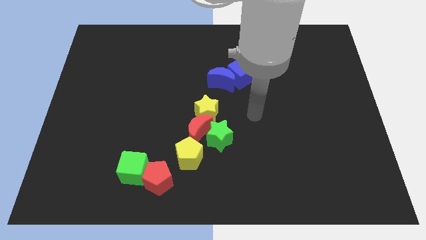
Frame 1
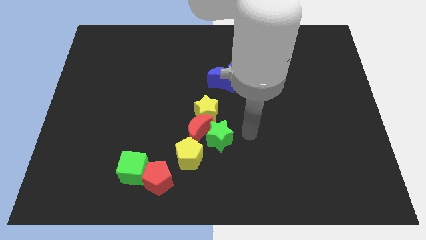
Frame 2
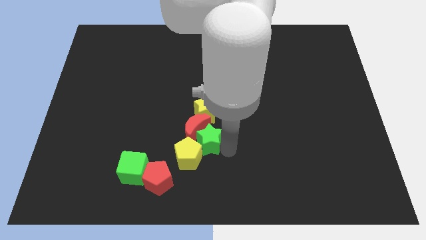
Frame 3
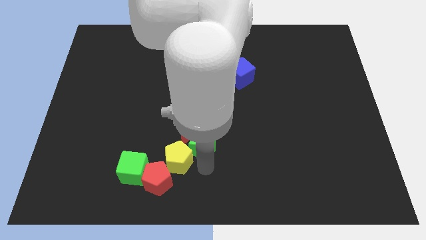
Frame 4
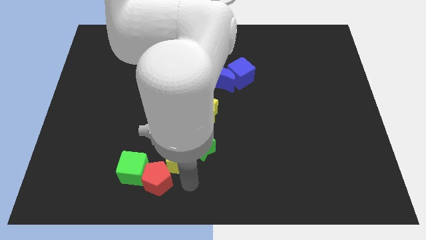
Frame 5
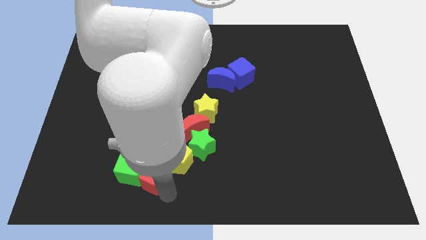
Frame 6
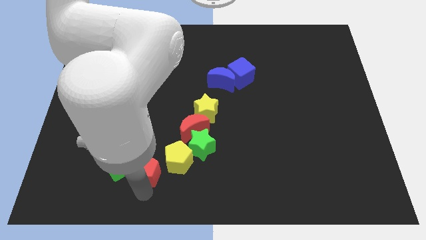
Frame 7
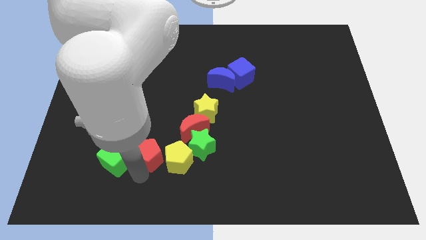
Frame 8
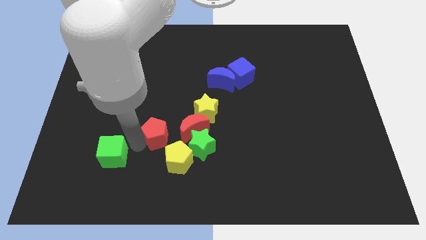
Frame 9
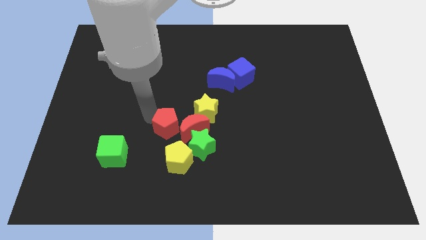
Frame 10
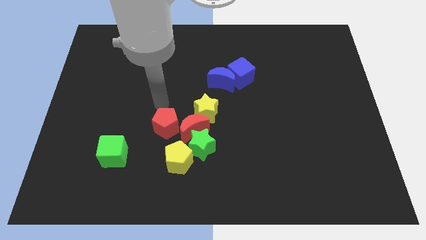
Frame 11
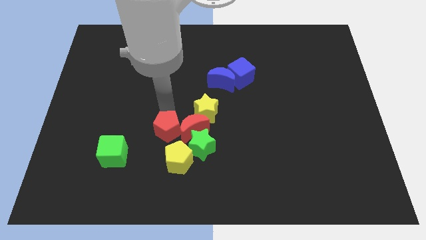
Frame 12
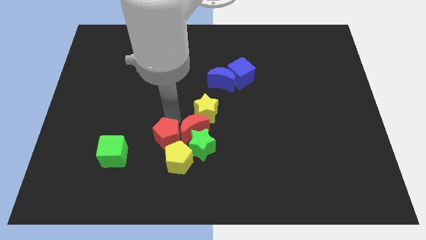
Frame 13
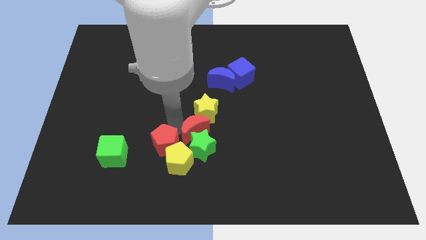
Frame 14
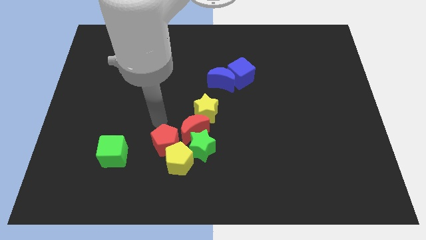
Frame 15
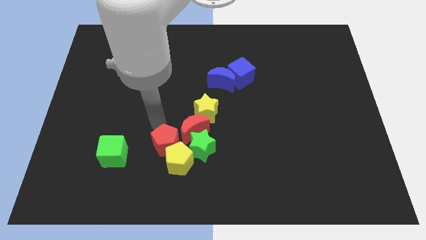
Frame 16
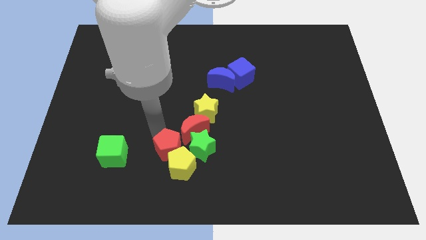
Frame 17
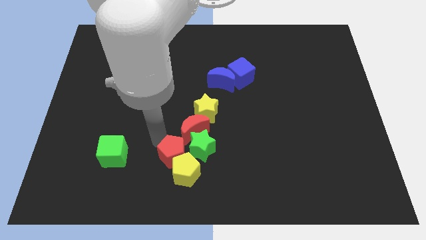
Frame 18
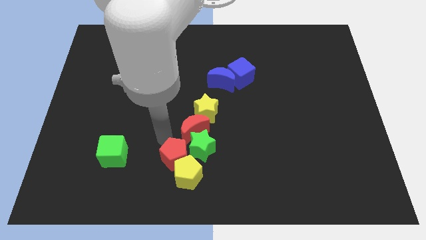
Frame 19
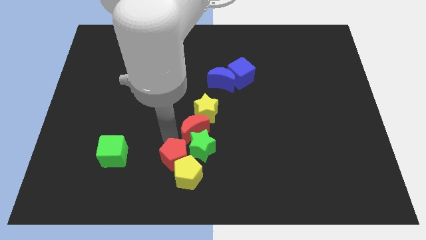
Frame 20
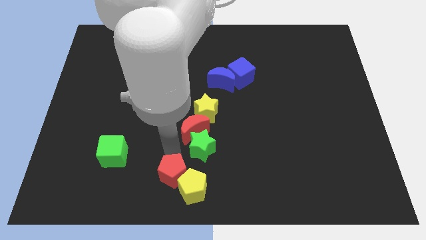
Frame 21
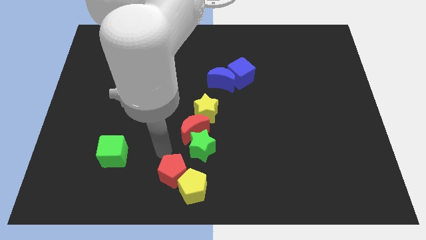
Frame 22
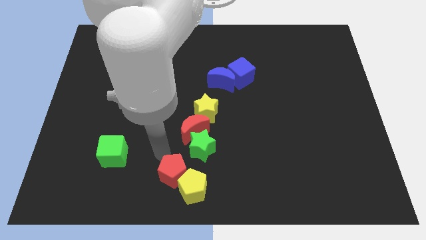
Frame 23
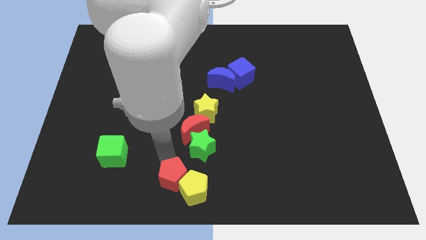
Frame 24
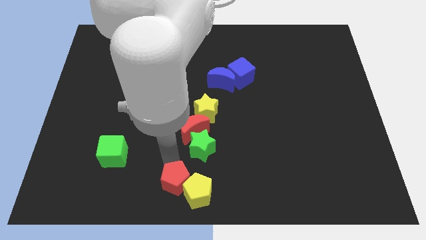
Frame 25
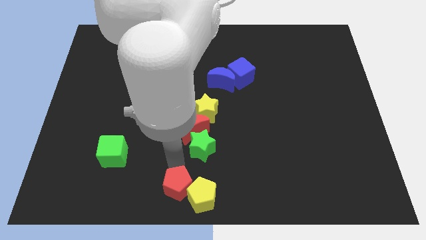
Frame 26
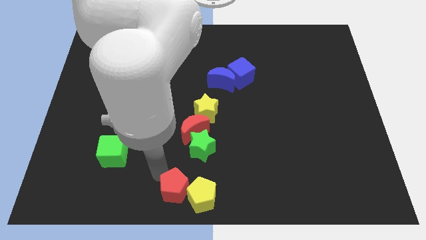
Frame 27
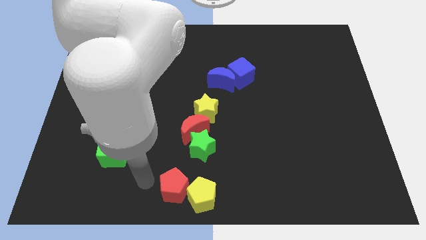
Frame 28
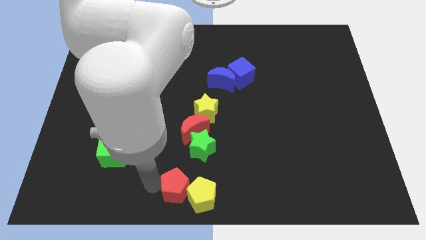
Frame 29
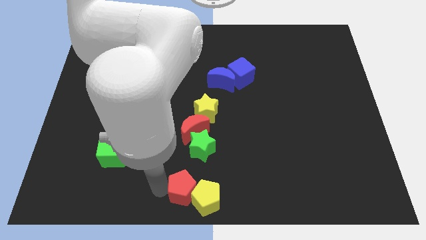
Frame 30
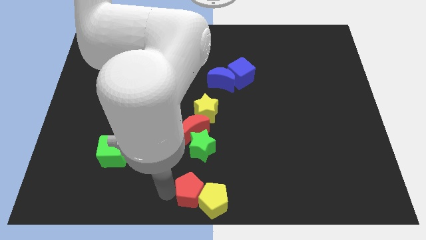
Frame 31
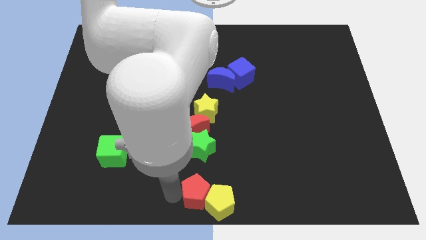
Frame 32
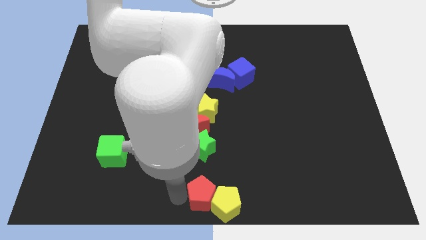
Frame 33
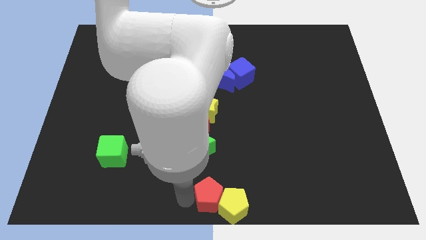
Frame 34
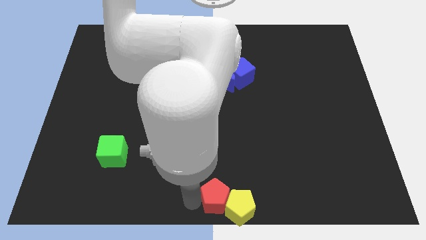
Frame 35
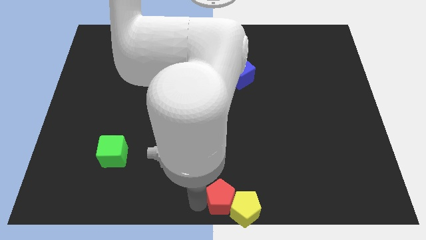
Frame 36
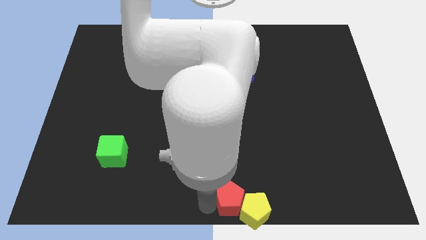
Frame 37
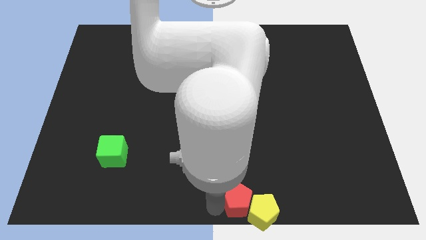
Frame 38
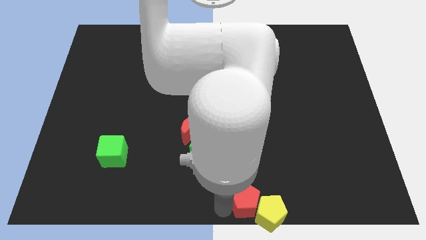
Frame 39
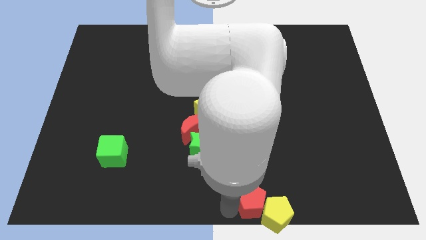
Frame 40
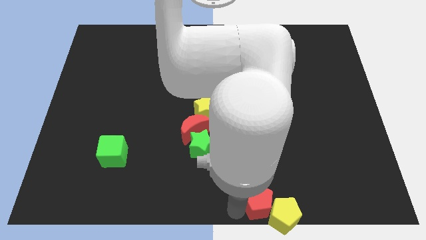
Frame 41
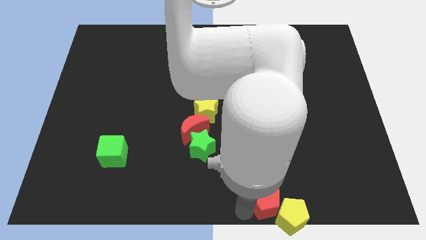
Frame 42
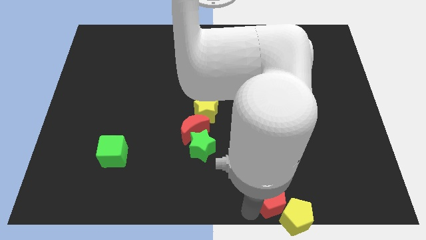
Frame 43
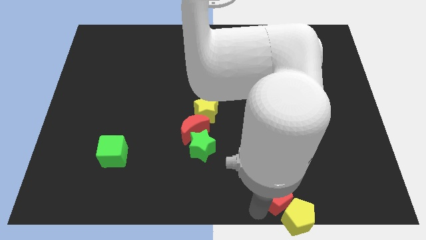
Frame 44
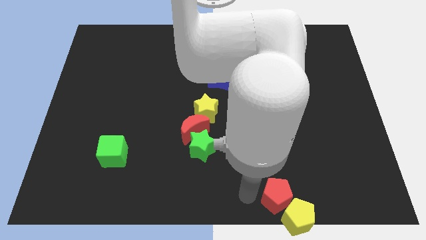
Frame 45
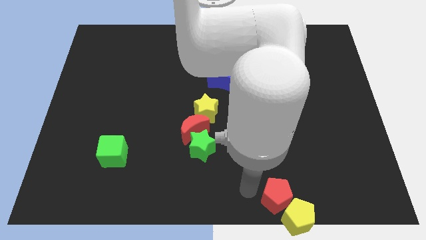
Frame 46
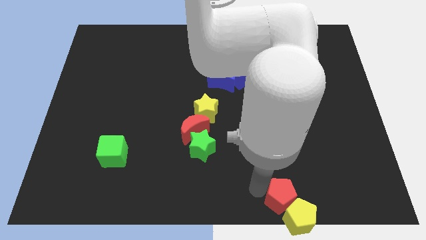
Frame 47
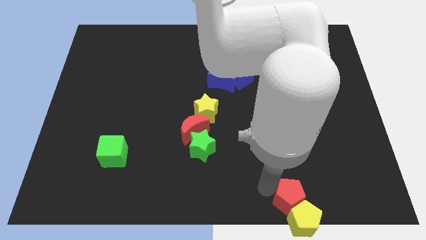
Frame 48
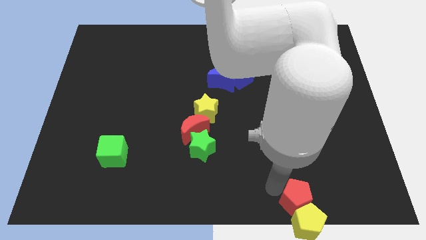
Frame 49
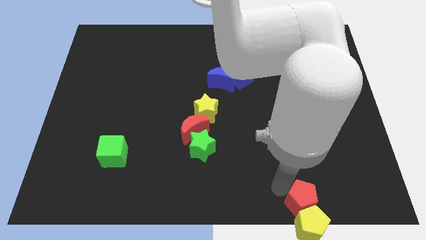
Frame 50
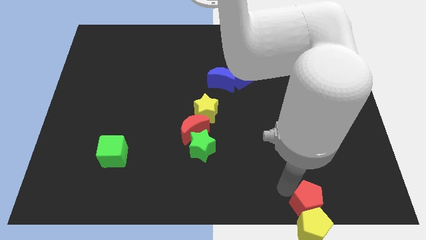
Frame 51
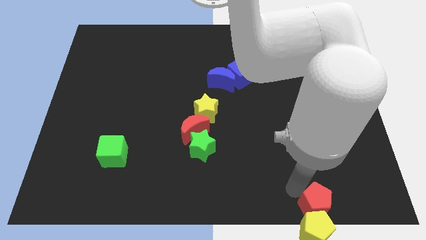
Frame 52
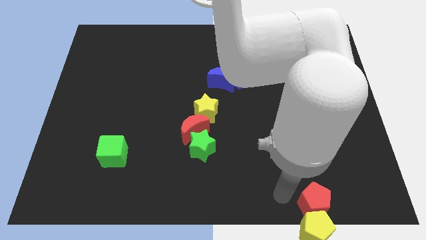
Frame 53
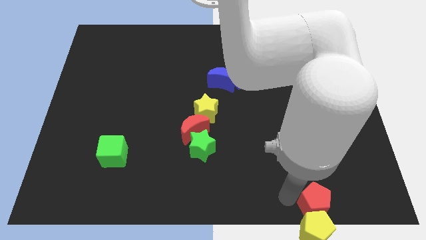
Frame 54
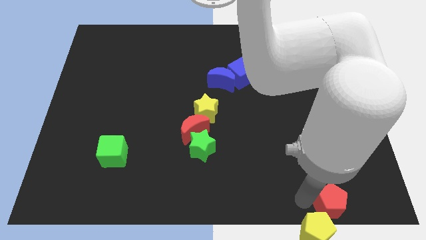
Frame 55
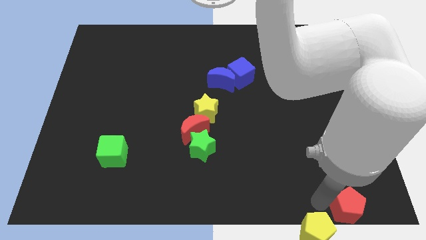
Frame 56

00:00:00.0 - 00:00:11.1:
push the red pentagon to the bottom right corner

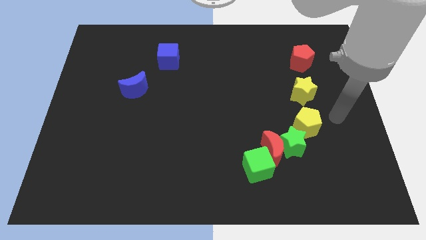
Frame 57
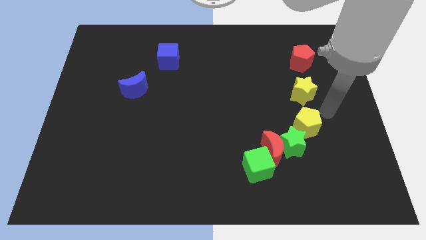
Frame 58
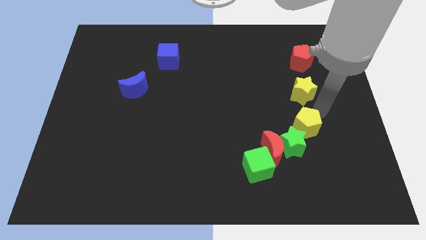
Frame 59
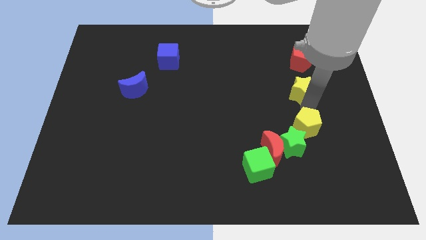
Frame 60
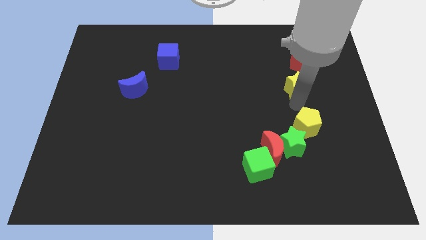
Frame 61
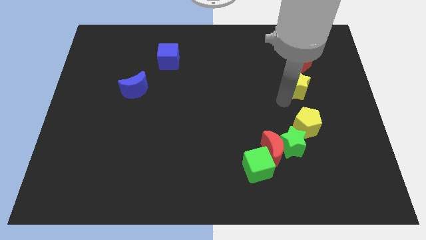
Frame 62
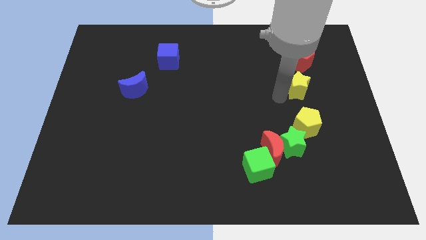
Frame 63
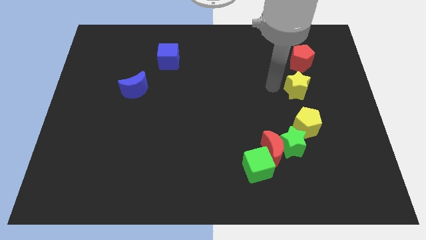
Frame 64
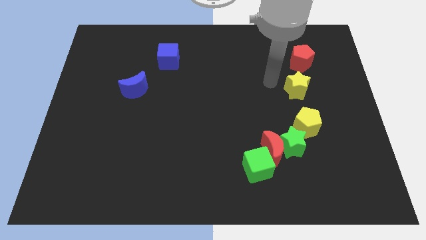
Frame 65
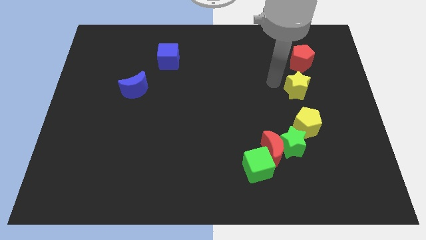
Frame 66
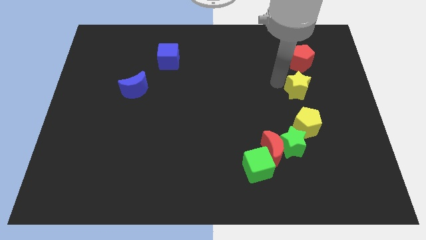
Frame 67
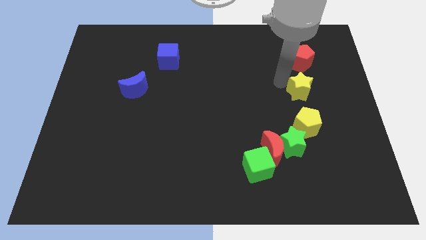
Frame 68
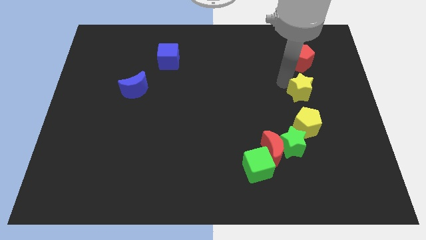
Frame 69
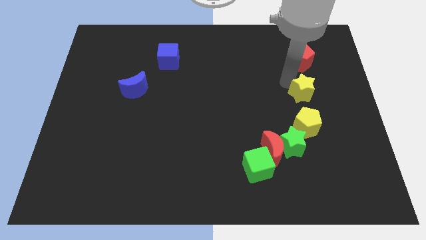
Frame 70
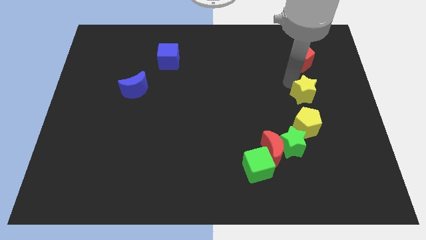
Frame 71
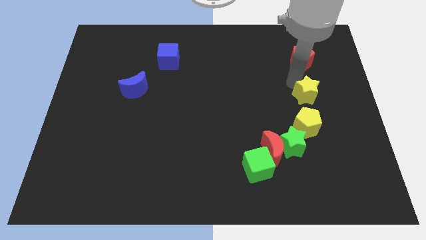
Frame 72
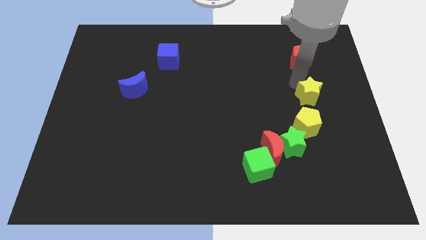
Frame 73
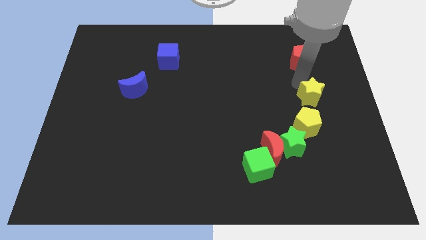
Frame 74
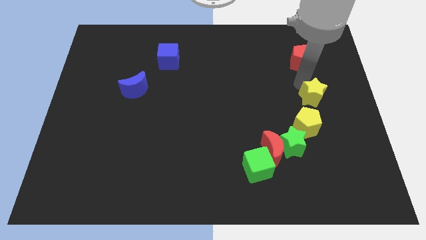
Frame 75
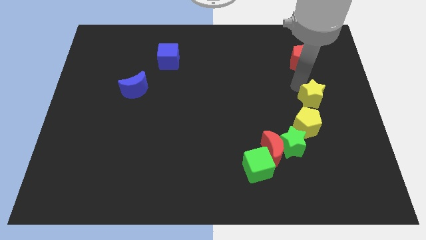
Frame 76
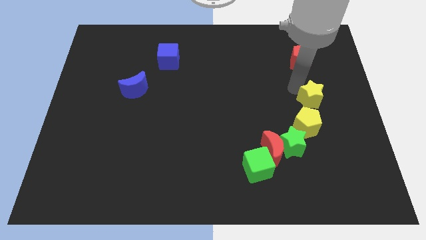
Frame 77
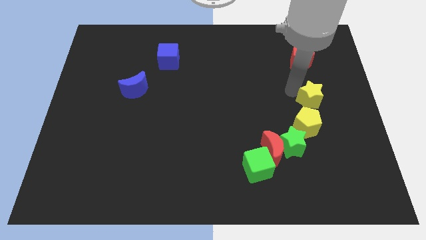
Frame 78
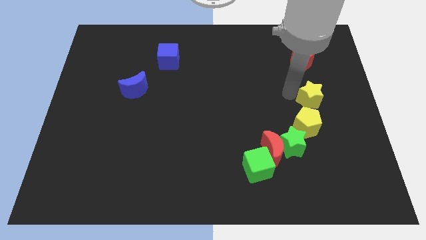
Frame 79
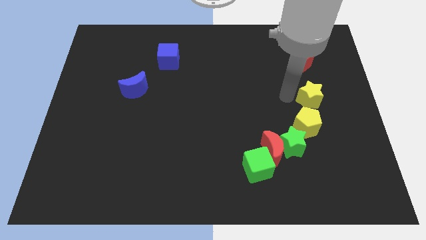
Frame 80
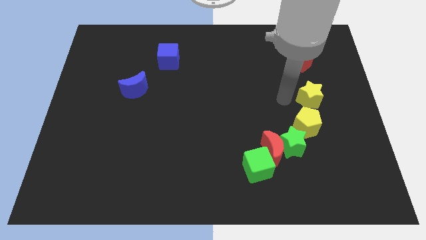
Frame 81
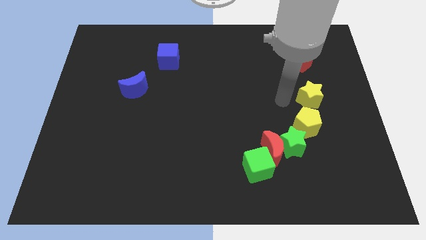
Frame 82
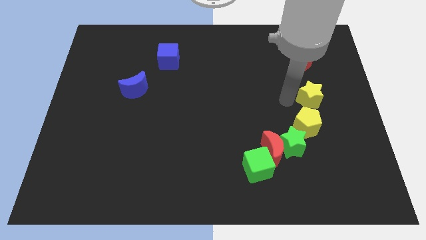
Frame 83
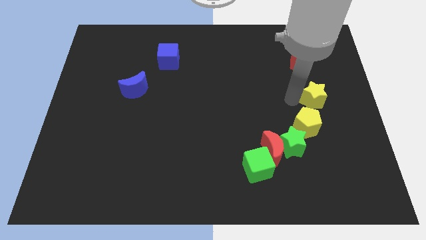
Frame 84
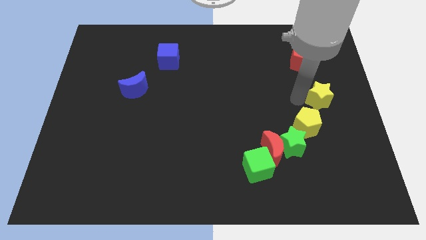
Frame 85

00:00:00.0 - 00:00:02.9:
slide the yellow star to the right side
